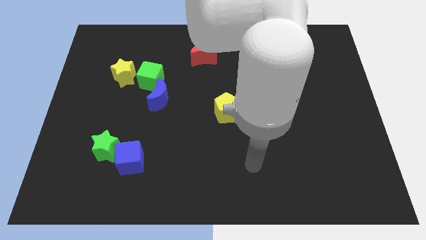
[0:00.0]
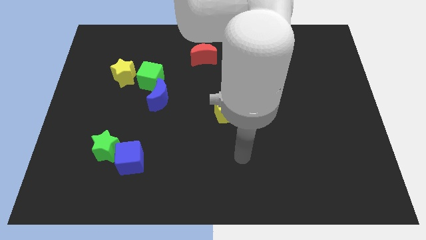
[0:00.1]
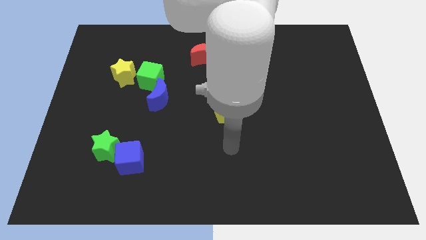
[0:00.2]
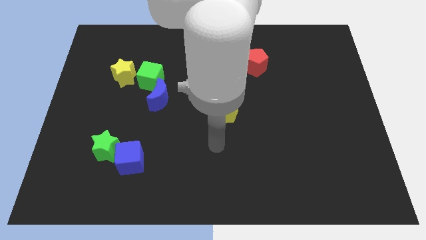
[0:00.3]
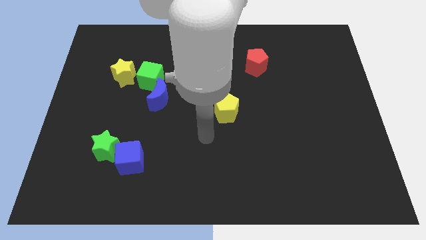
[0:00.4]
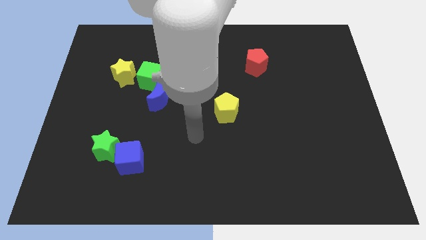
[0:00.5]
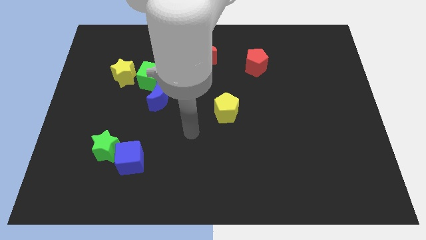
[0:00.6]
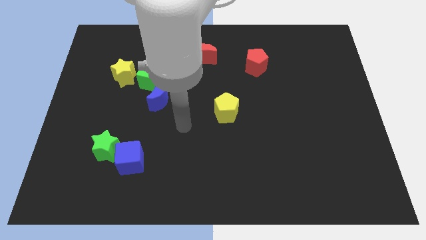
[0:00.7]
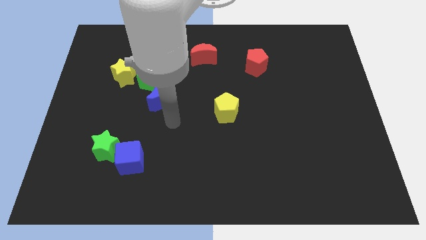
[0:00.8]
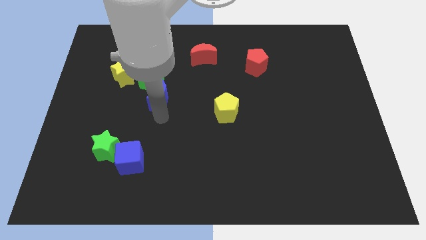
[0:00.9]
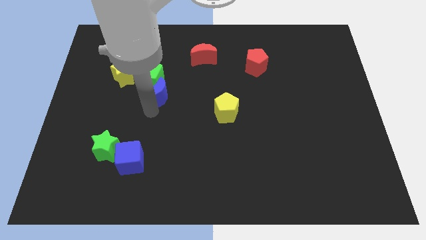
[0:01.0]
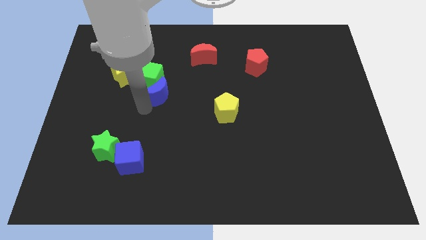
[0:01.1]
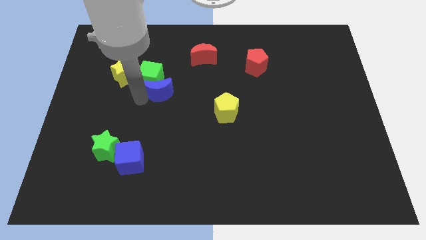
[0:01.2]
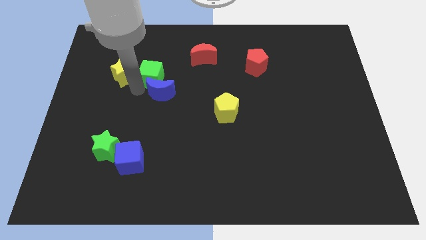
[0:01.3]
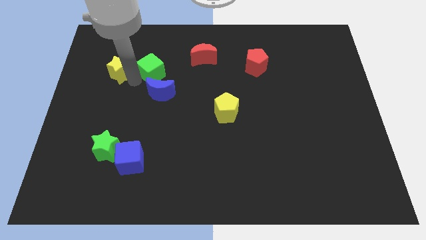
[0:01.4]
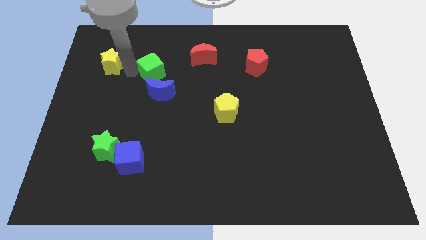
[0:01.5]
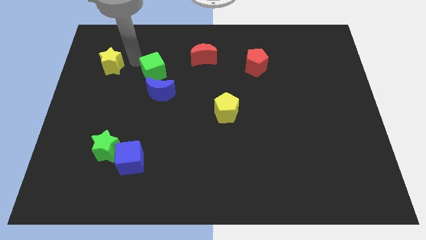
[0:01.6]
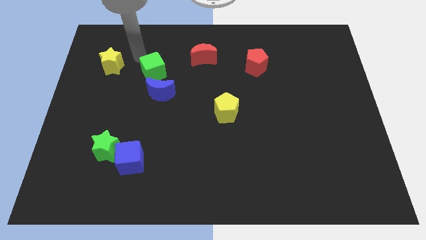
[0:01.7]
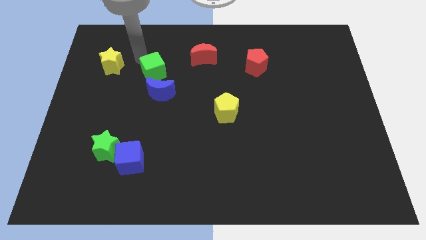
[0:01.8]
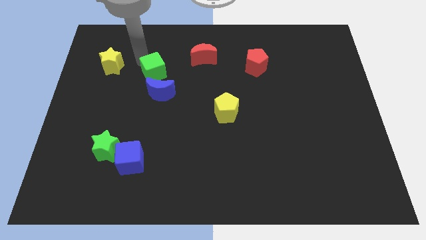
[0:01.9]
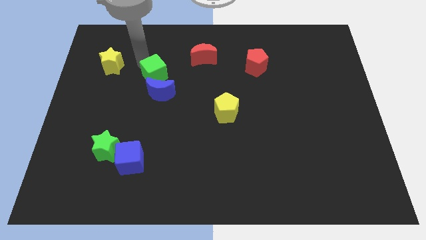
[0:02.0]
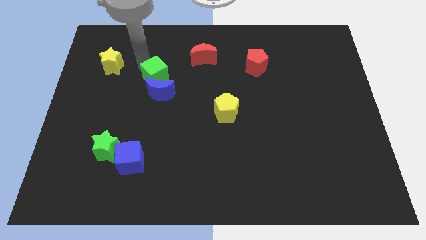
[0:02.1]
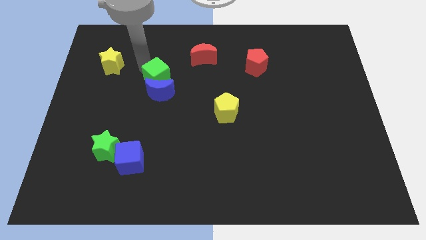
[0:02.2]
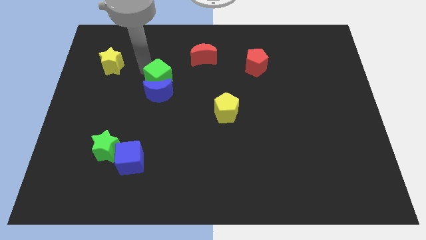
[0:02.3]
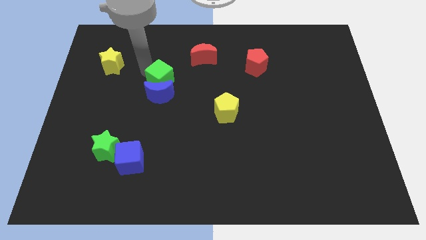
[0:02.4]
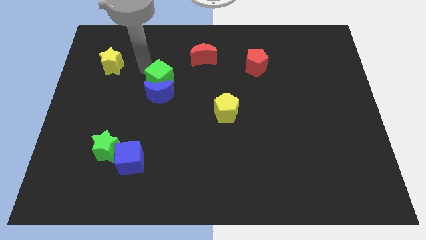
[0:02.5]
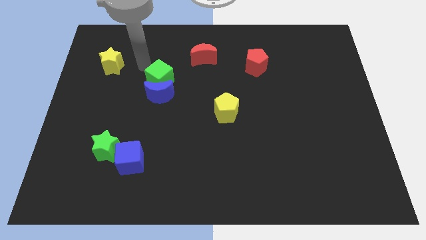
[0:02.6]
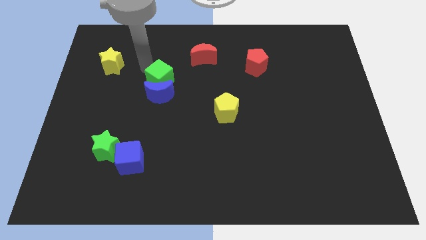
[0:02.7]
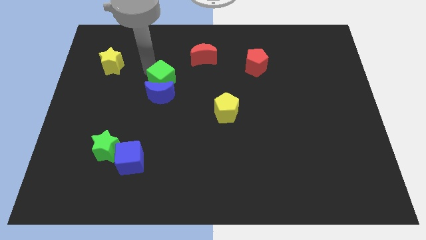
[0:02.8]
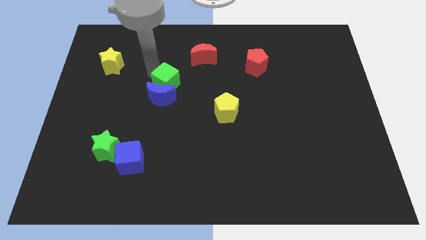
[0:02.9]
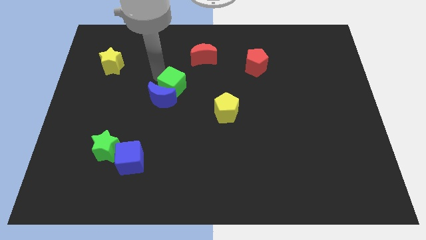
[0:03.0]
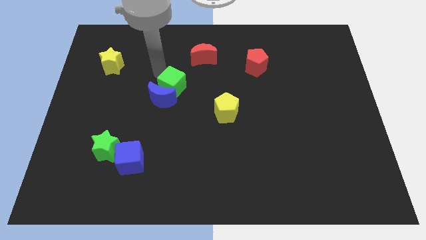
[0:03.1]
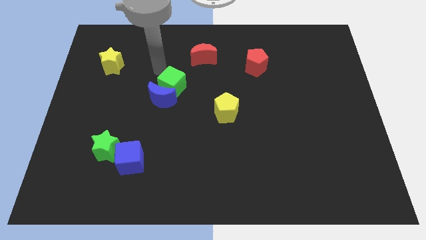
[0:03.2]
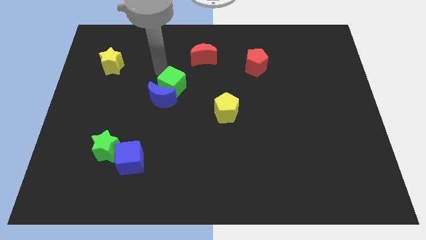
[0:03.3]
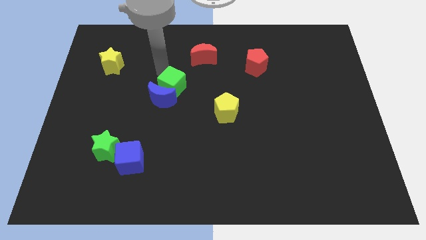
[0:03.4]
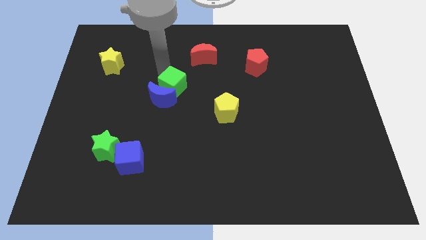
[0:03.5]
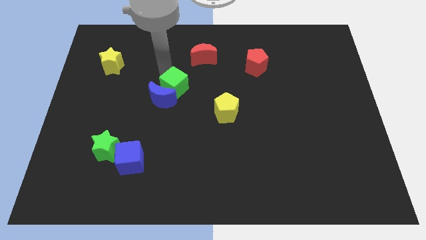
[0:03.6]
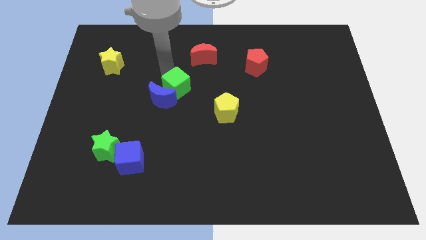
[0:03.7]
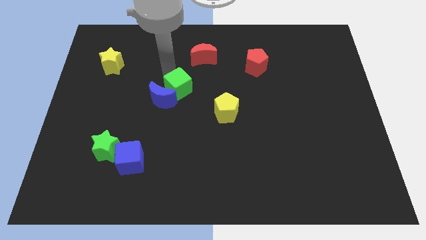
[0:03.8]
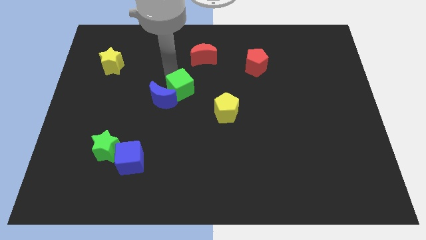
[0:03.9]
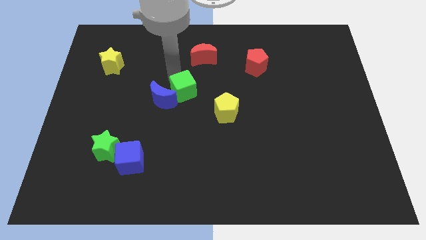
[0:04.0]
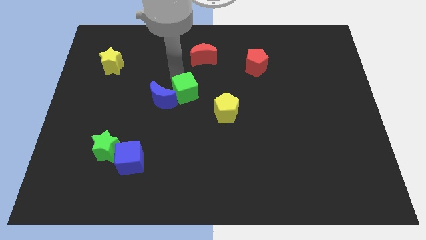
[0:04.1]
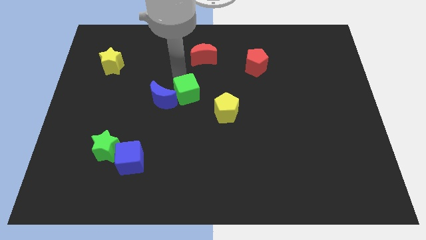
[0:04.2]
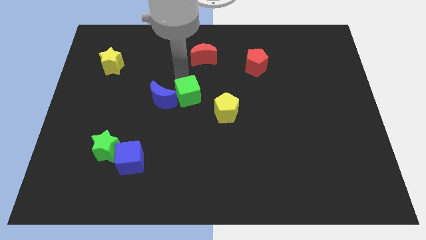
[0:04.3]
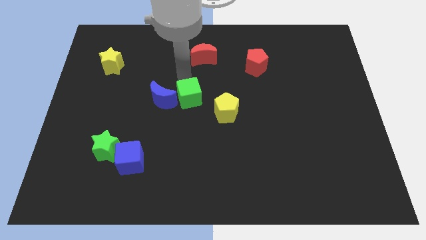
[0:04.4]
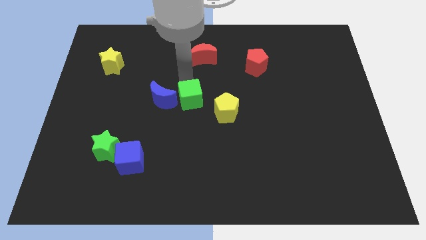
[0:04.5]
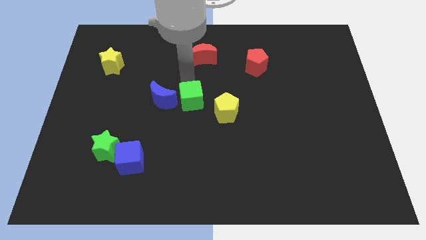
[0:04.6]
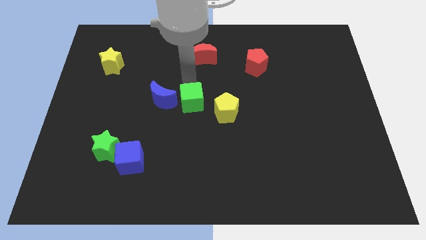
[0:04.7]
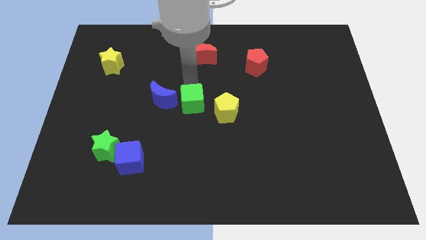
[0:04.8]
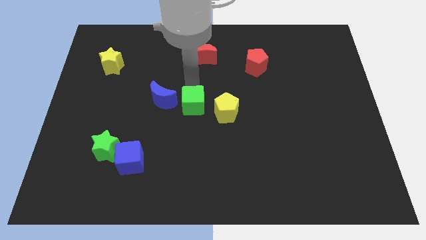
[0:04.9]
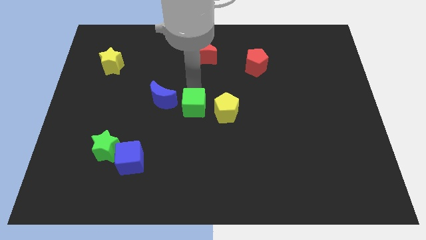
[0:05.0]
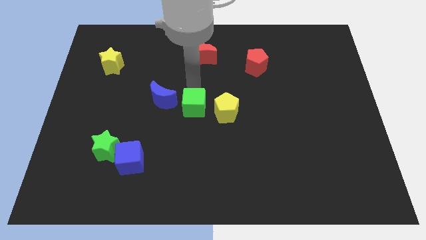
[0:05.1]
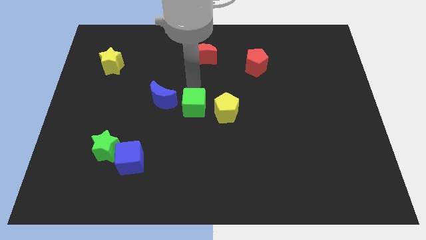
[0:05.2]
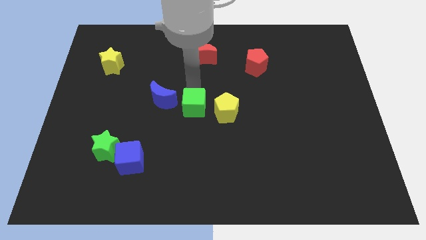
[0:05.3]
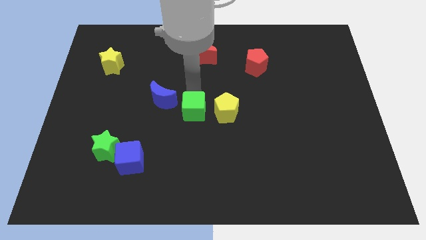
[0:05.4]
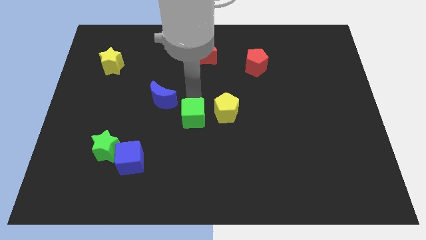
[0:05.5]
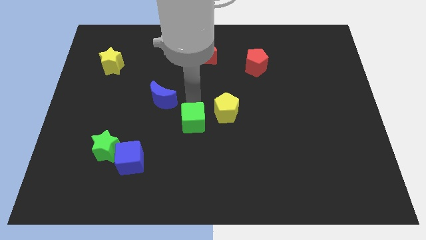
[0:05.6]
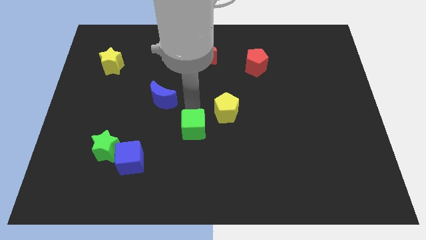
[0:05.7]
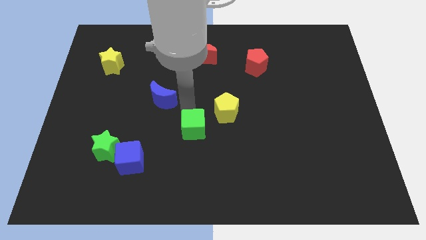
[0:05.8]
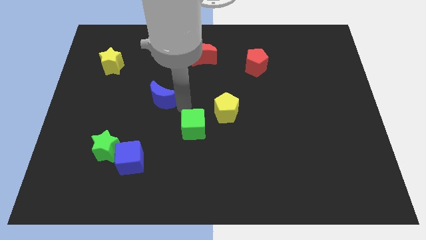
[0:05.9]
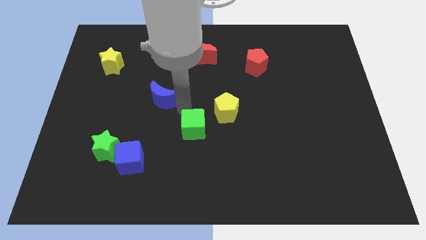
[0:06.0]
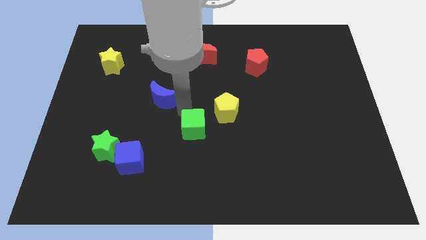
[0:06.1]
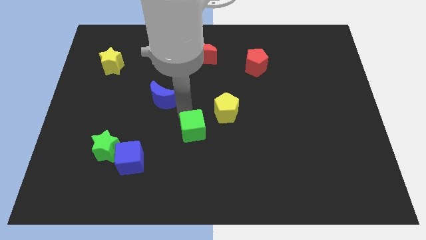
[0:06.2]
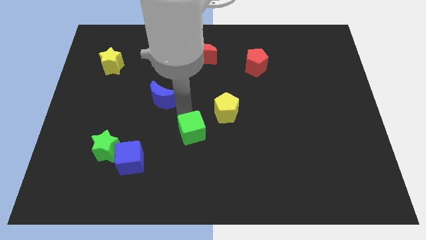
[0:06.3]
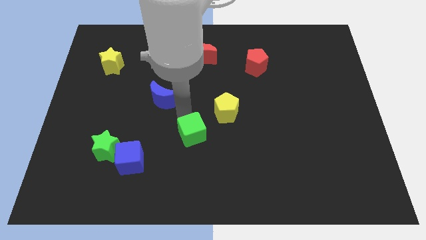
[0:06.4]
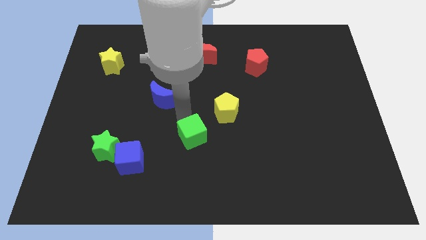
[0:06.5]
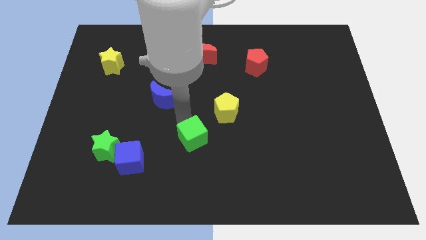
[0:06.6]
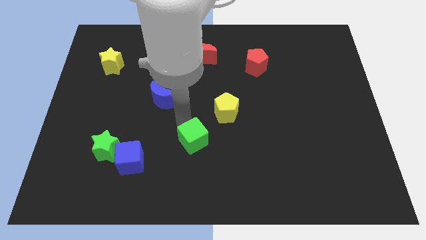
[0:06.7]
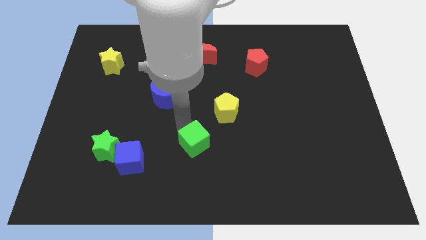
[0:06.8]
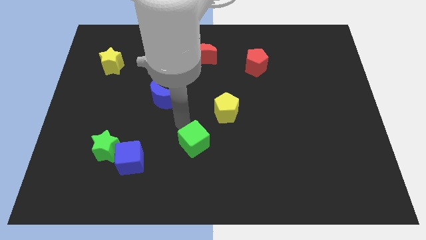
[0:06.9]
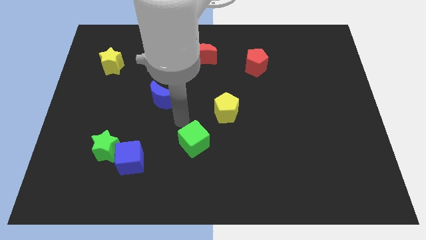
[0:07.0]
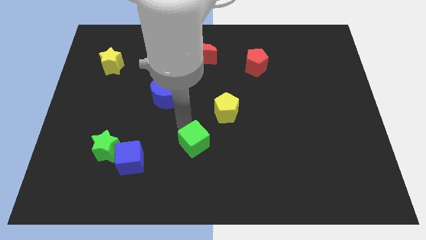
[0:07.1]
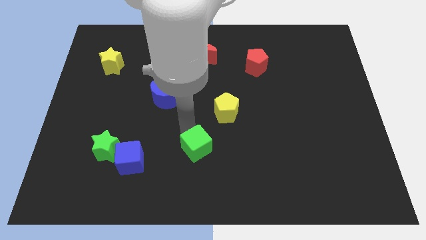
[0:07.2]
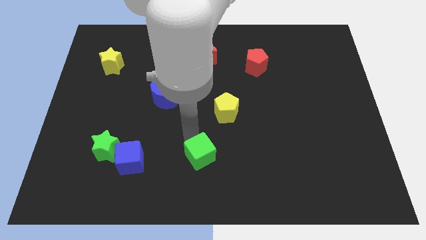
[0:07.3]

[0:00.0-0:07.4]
put the green cube to the bottom

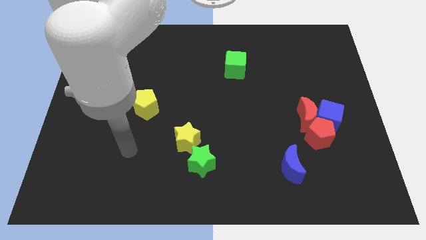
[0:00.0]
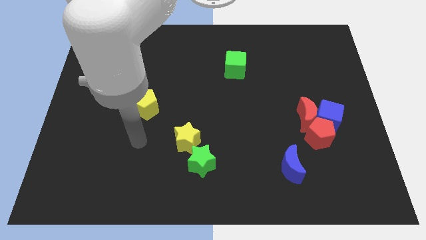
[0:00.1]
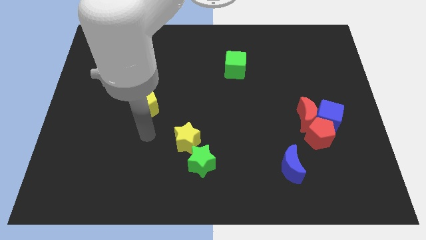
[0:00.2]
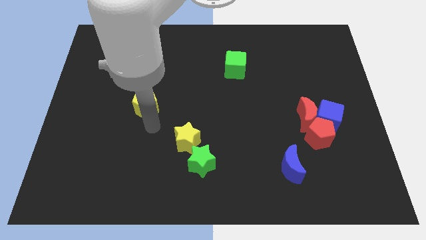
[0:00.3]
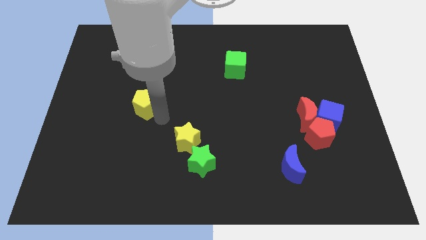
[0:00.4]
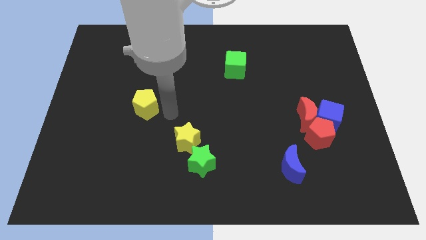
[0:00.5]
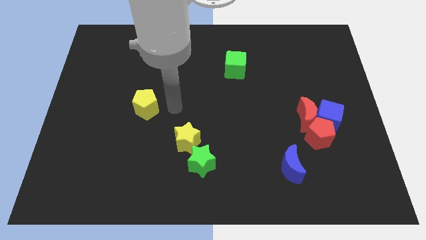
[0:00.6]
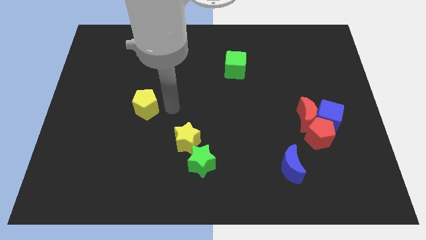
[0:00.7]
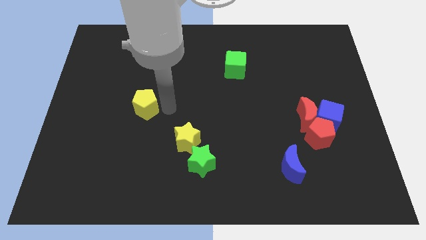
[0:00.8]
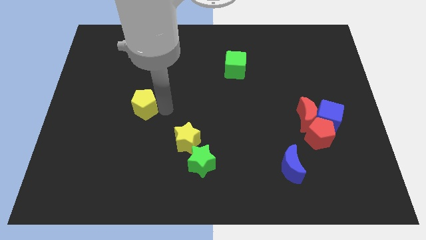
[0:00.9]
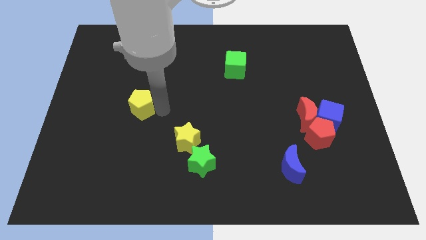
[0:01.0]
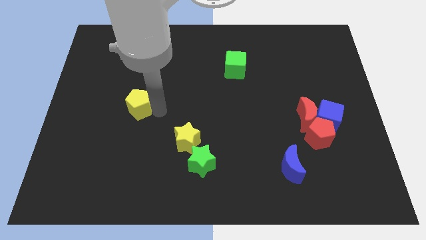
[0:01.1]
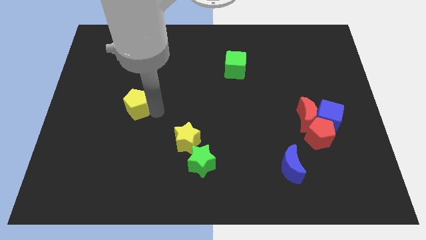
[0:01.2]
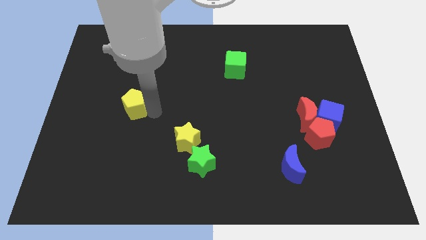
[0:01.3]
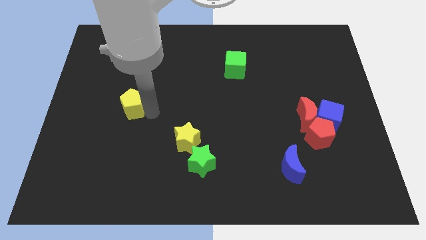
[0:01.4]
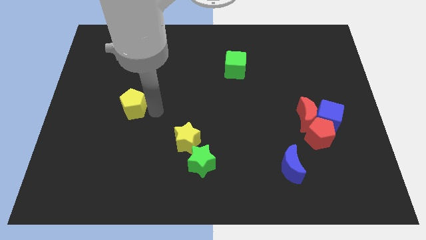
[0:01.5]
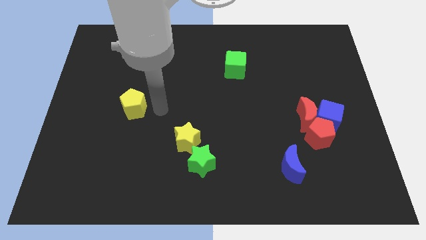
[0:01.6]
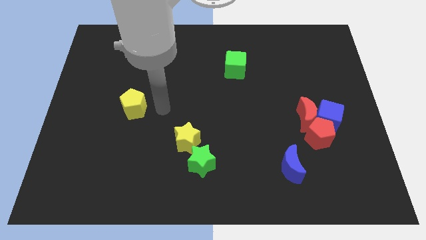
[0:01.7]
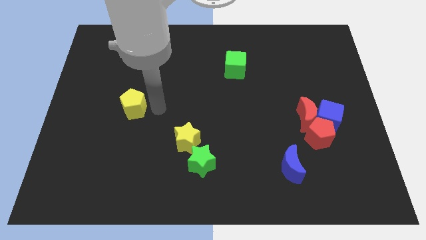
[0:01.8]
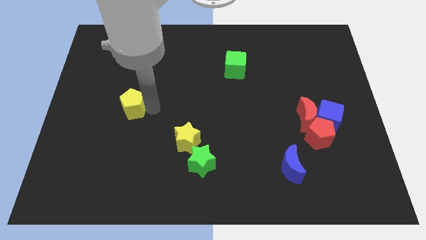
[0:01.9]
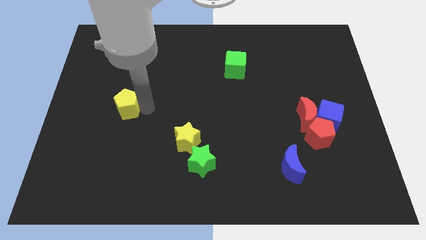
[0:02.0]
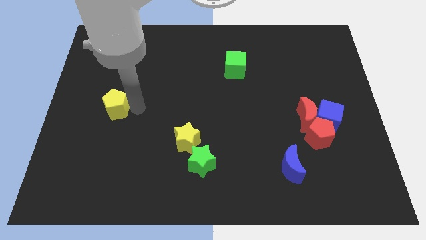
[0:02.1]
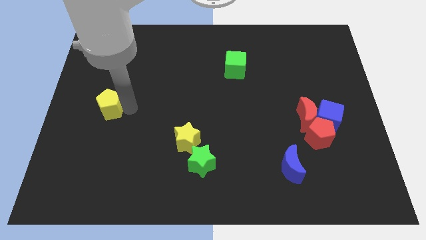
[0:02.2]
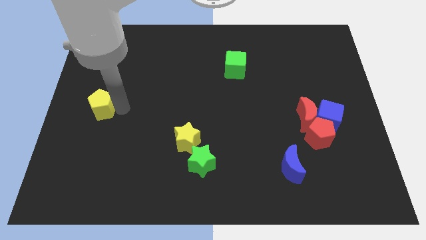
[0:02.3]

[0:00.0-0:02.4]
put the yellow pentagon to the left side of the board
